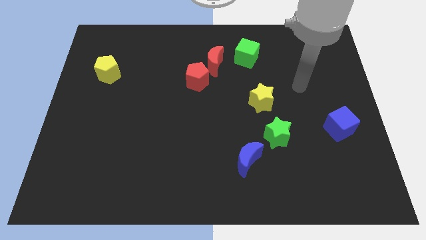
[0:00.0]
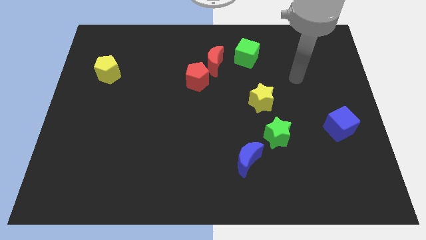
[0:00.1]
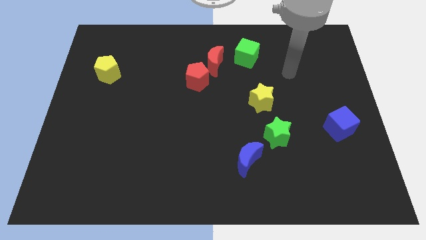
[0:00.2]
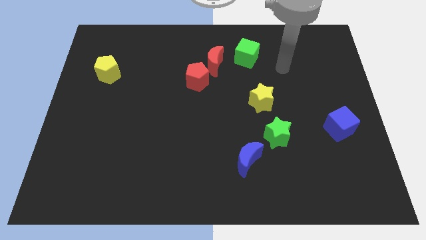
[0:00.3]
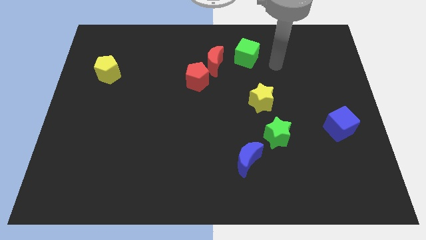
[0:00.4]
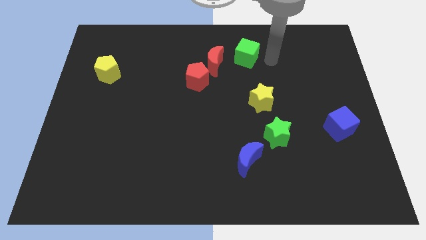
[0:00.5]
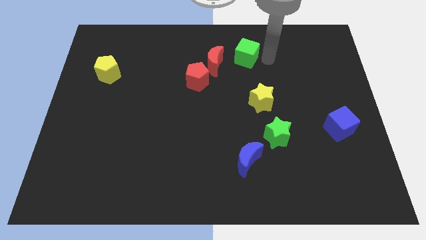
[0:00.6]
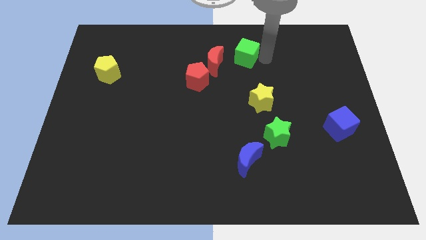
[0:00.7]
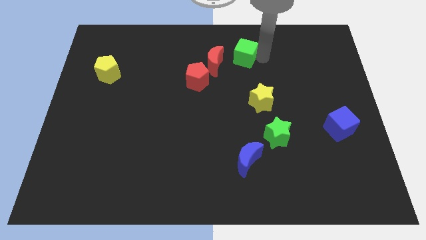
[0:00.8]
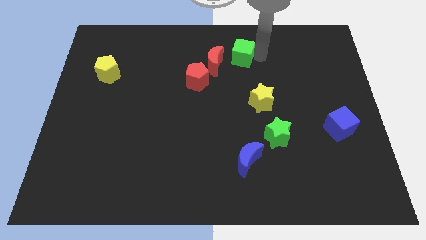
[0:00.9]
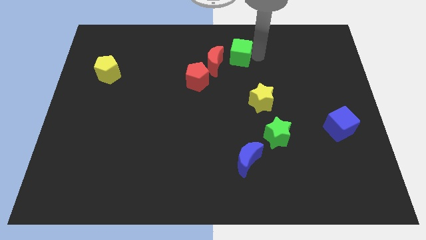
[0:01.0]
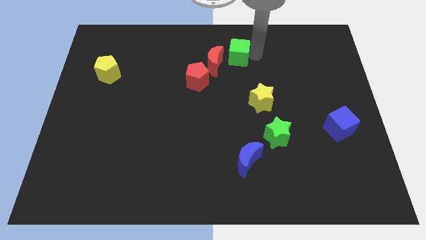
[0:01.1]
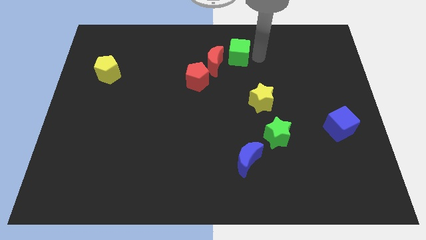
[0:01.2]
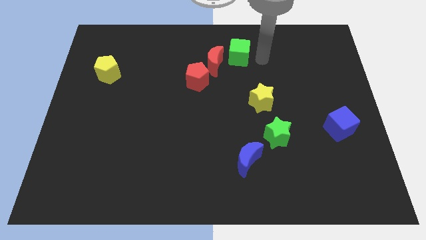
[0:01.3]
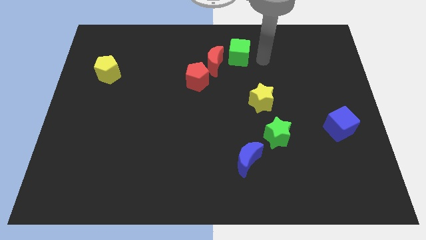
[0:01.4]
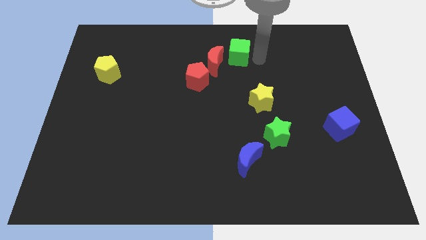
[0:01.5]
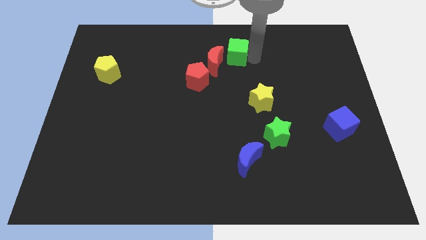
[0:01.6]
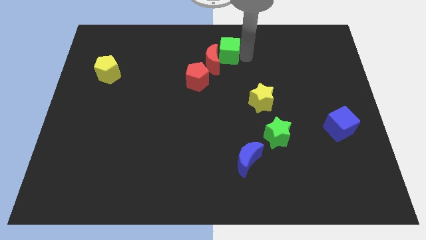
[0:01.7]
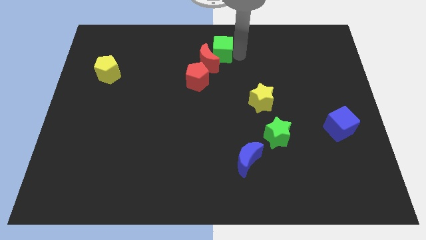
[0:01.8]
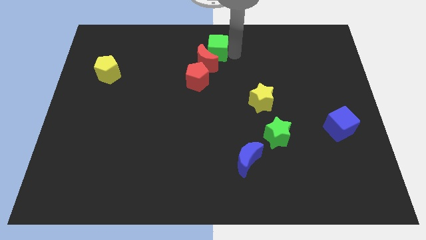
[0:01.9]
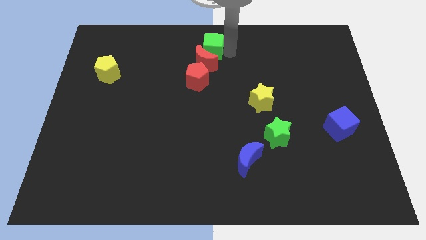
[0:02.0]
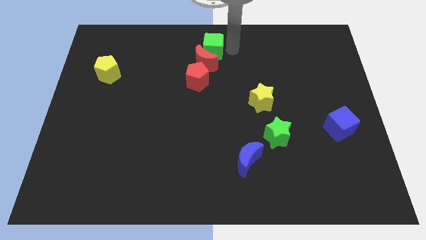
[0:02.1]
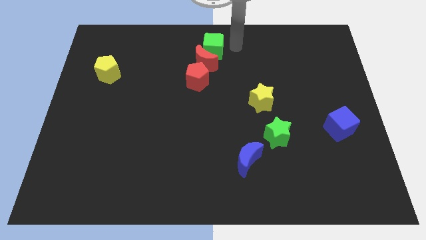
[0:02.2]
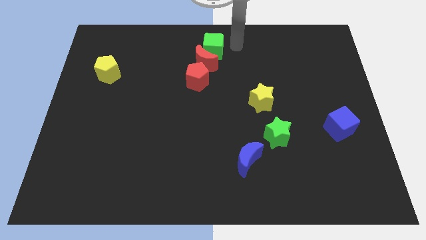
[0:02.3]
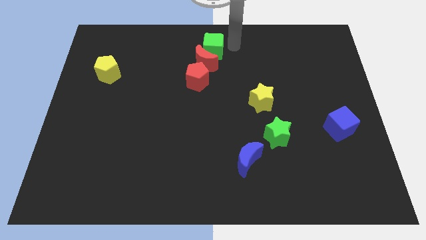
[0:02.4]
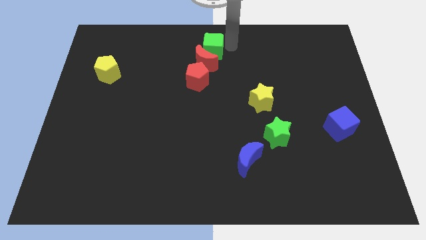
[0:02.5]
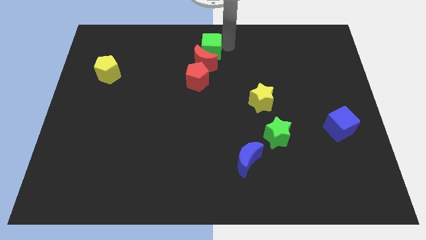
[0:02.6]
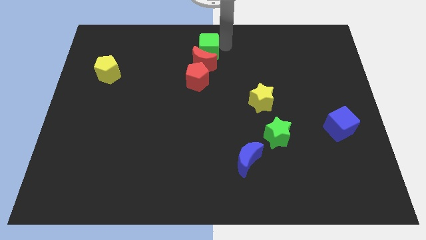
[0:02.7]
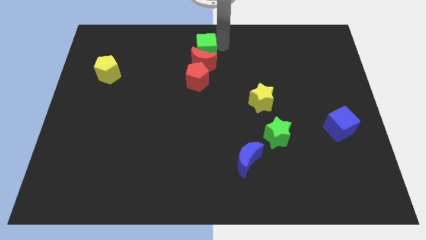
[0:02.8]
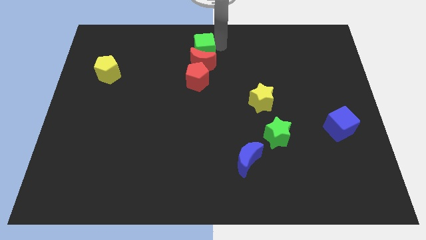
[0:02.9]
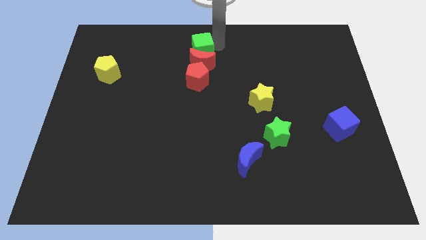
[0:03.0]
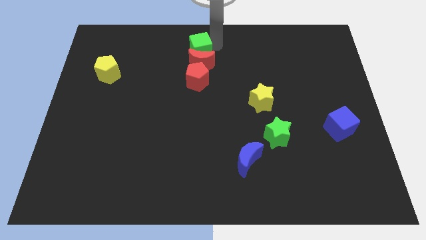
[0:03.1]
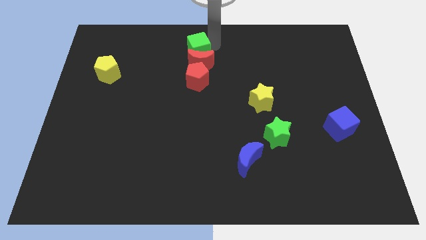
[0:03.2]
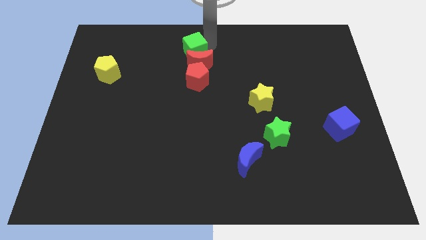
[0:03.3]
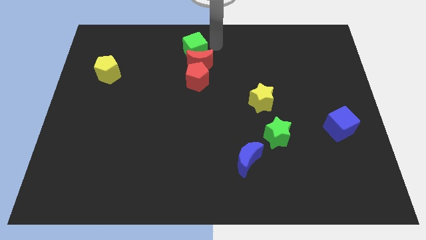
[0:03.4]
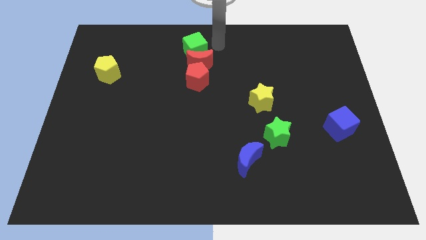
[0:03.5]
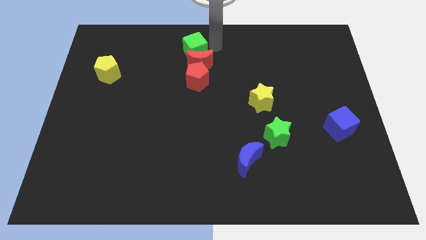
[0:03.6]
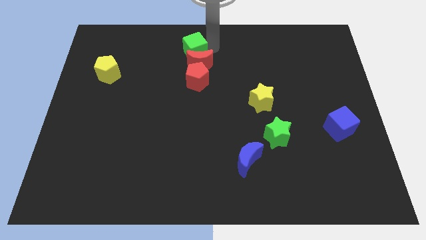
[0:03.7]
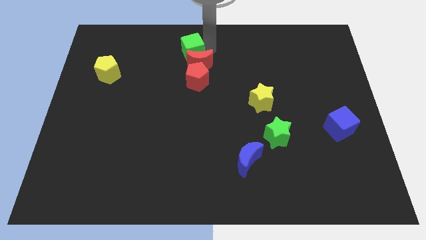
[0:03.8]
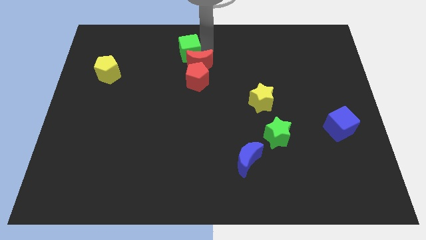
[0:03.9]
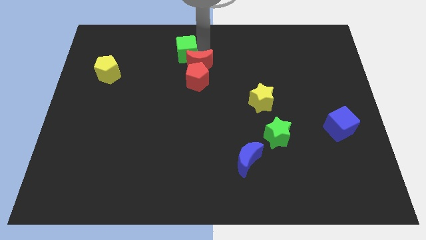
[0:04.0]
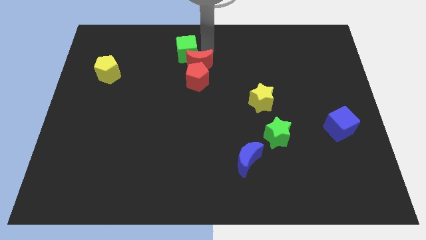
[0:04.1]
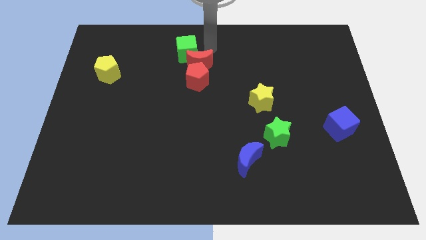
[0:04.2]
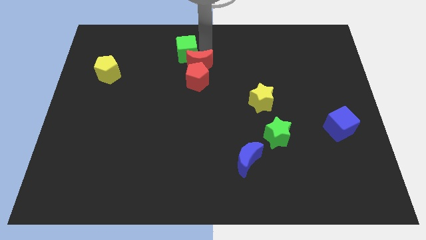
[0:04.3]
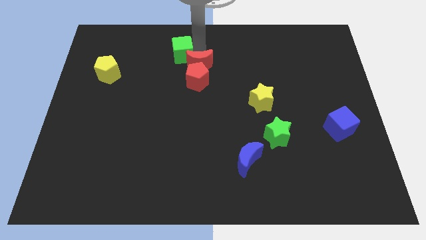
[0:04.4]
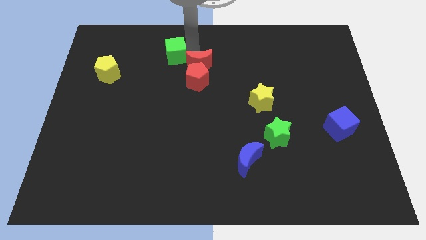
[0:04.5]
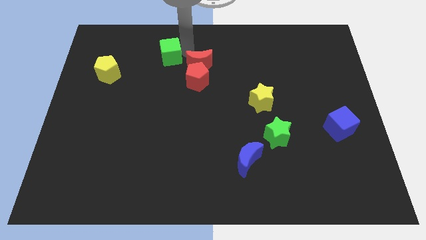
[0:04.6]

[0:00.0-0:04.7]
push the green cube left

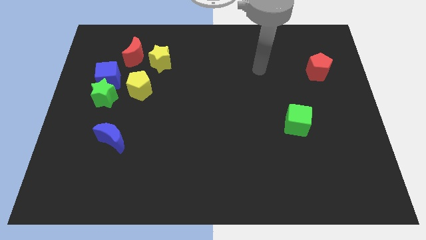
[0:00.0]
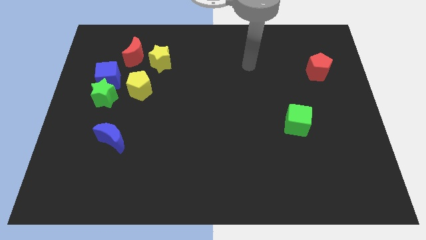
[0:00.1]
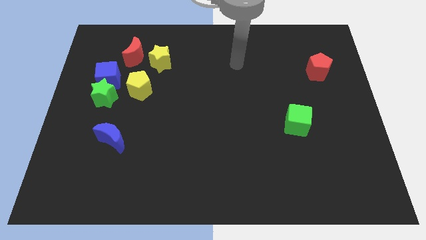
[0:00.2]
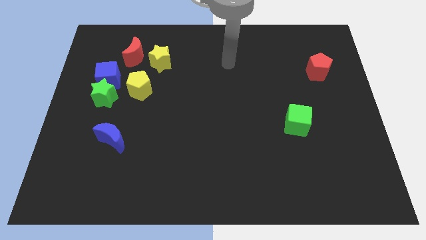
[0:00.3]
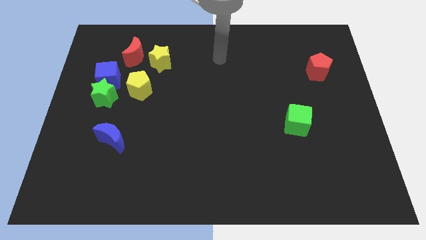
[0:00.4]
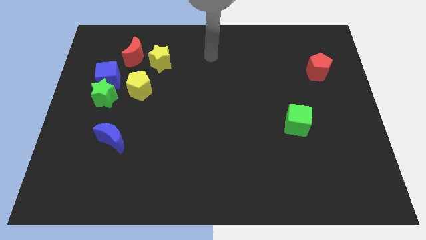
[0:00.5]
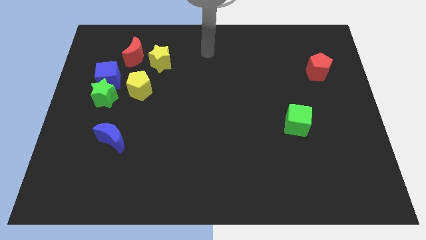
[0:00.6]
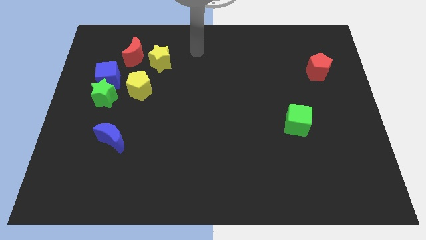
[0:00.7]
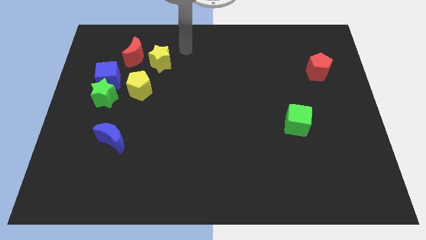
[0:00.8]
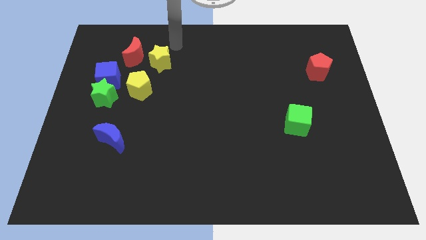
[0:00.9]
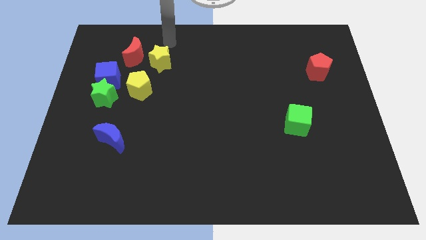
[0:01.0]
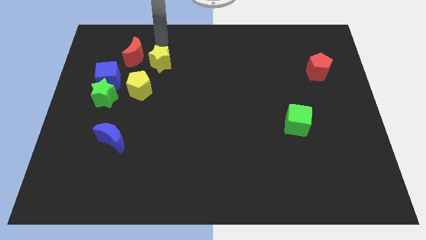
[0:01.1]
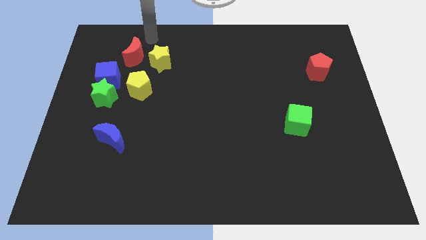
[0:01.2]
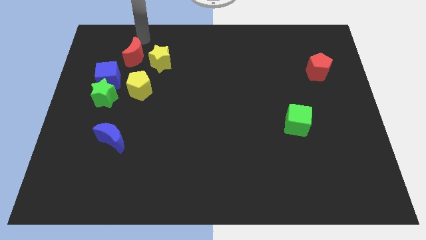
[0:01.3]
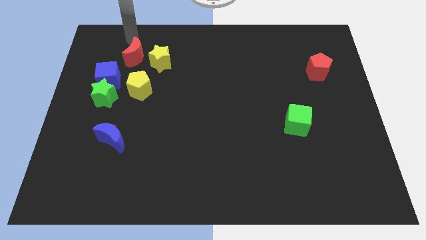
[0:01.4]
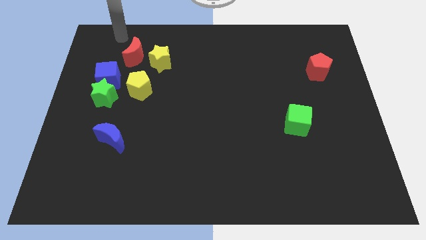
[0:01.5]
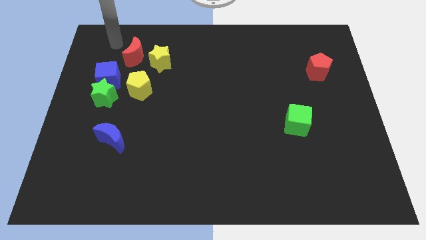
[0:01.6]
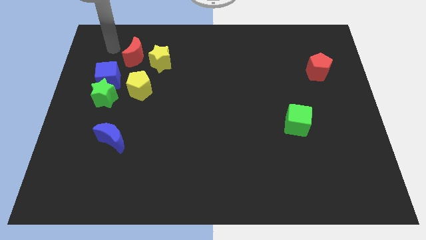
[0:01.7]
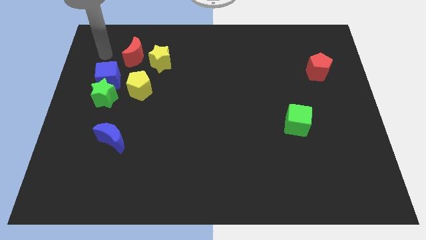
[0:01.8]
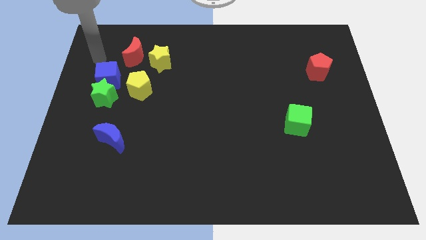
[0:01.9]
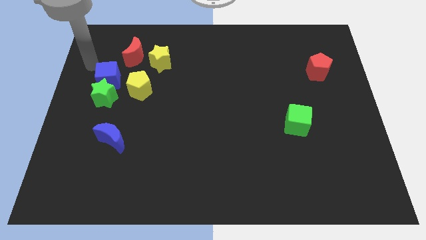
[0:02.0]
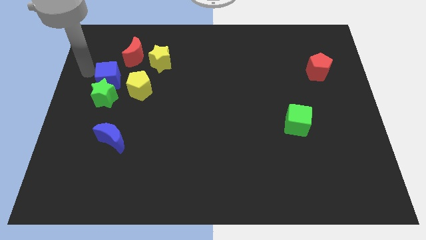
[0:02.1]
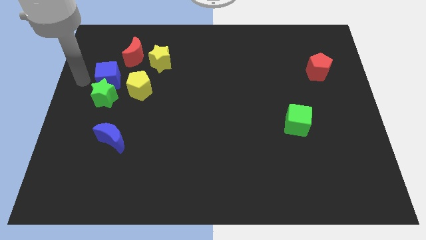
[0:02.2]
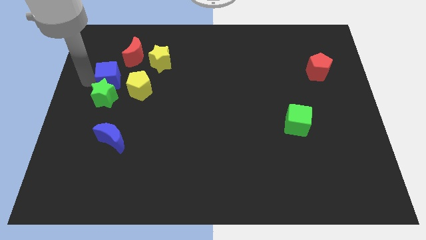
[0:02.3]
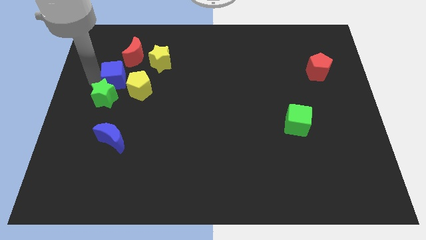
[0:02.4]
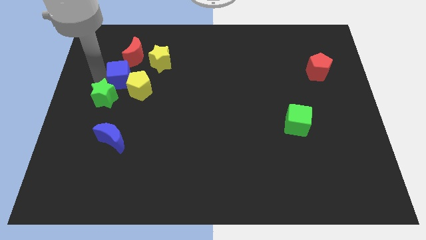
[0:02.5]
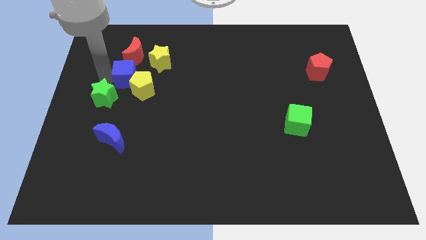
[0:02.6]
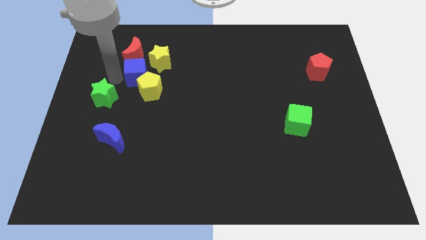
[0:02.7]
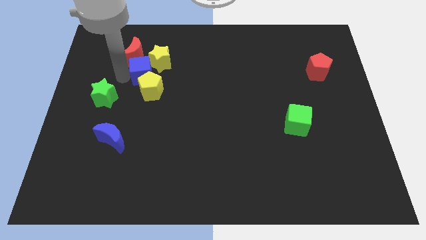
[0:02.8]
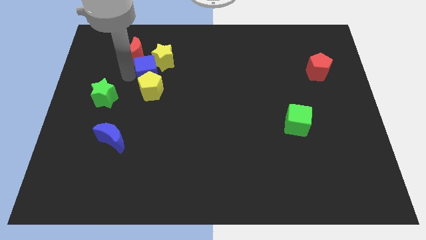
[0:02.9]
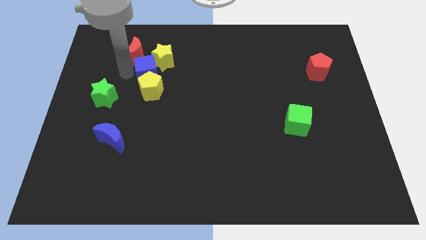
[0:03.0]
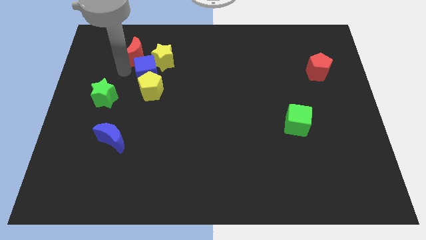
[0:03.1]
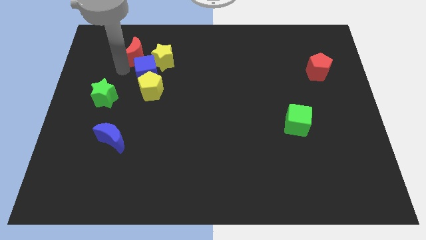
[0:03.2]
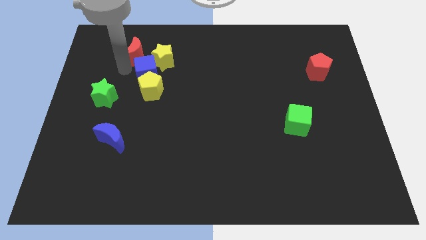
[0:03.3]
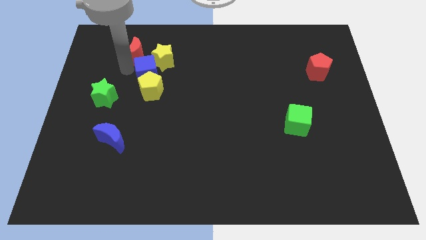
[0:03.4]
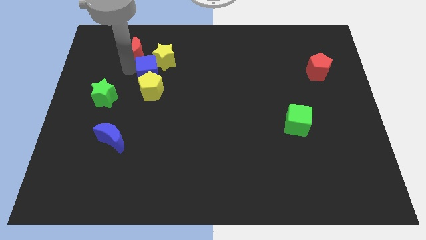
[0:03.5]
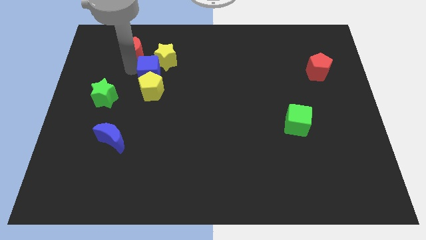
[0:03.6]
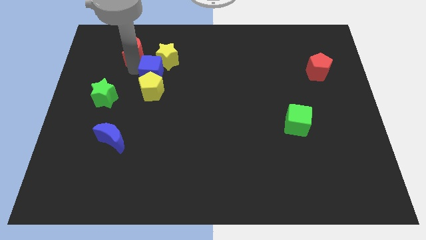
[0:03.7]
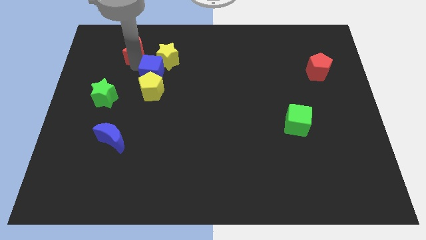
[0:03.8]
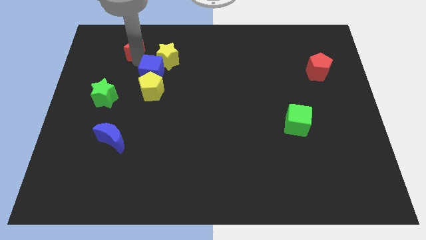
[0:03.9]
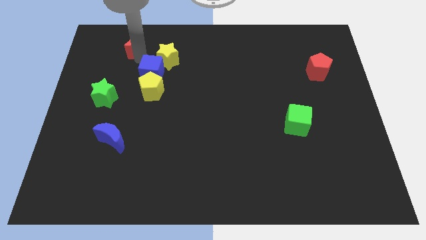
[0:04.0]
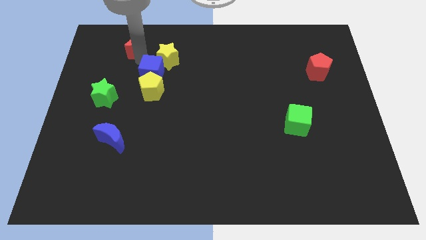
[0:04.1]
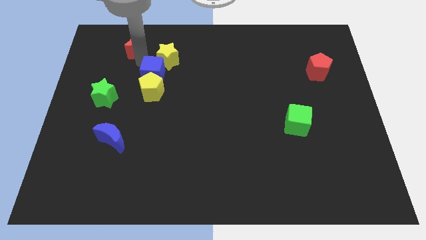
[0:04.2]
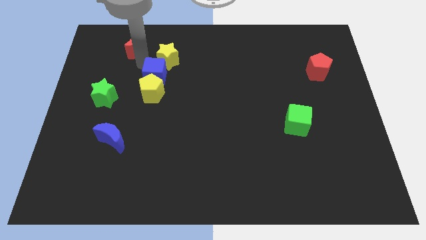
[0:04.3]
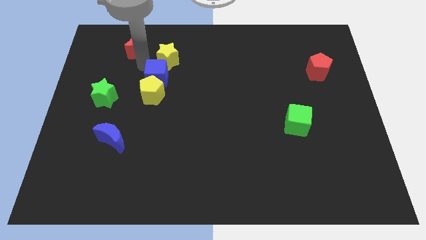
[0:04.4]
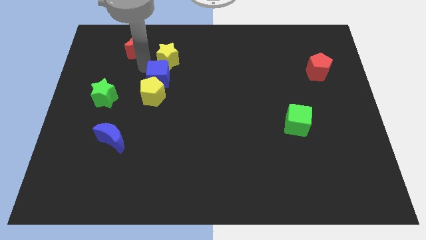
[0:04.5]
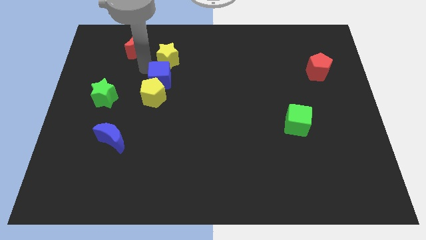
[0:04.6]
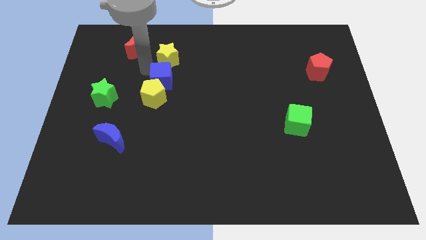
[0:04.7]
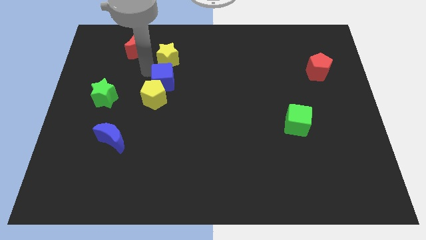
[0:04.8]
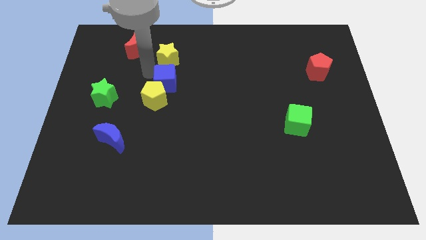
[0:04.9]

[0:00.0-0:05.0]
slide the blue cube slightly downwards and to the right diagonally
